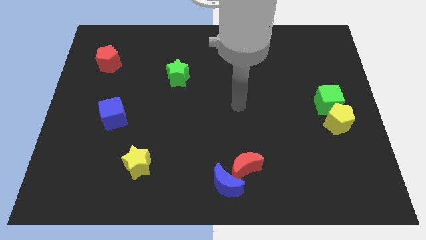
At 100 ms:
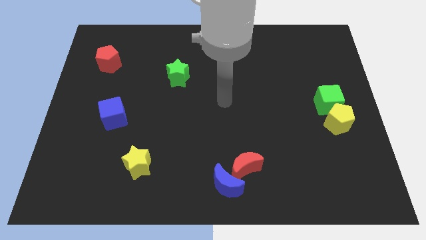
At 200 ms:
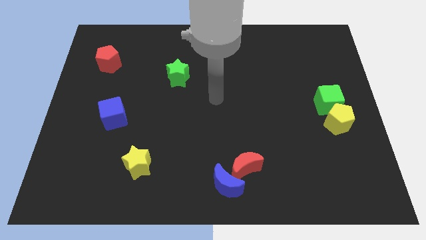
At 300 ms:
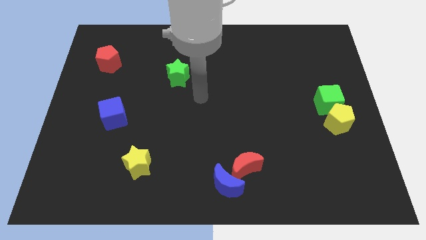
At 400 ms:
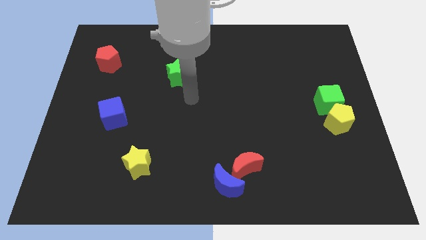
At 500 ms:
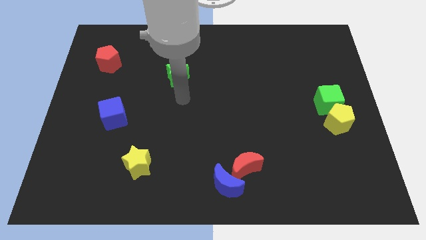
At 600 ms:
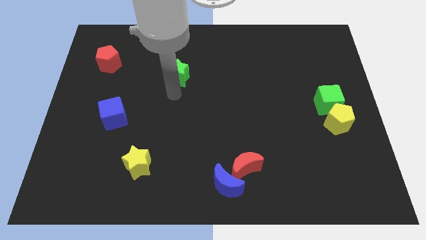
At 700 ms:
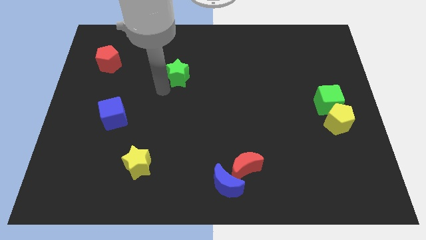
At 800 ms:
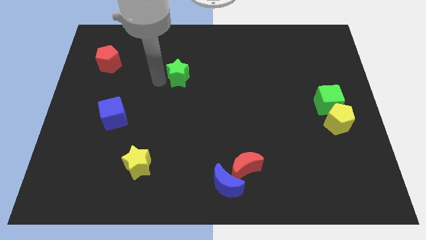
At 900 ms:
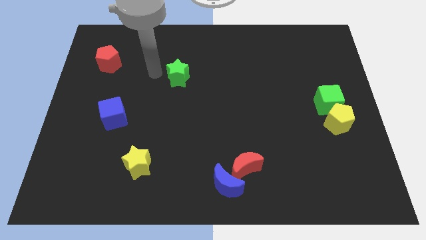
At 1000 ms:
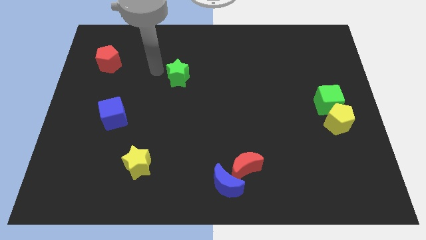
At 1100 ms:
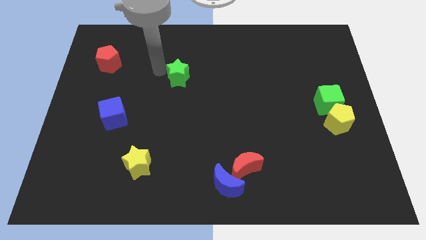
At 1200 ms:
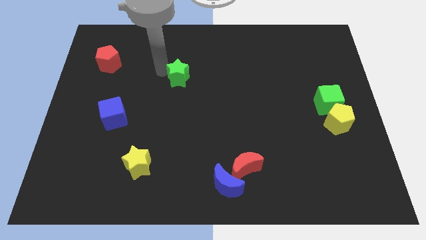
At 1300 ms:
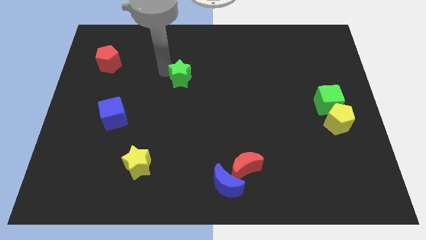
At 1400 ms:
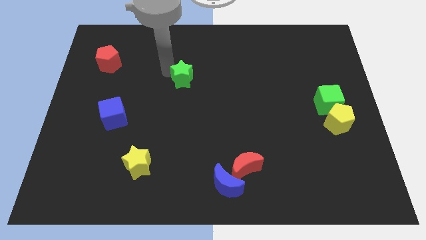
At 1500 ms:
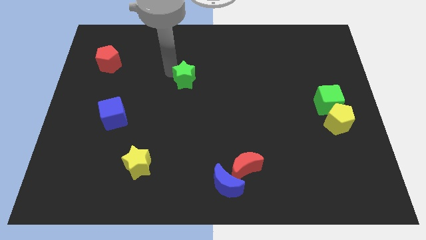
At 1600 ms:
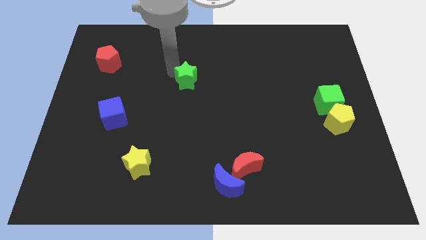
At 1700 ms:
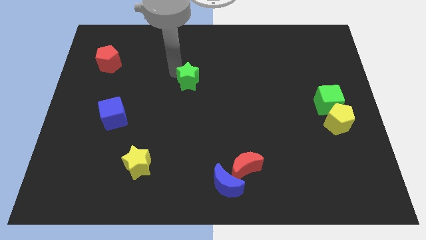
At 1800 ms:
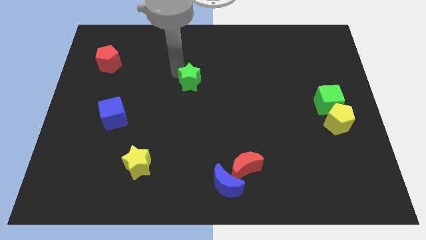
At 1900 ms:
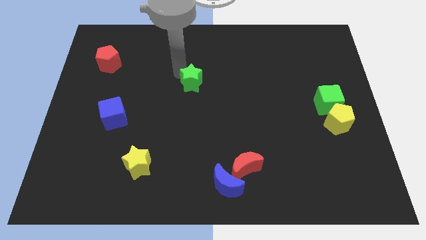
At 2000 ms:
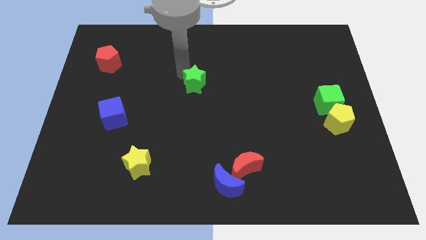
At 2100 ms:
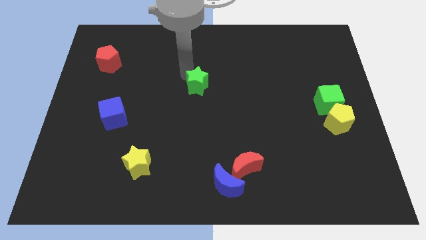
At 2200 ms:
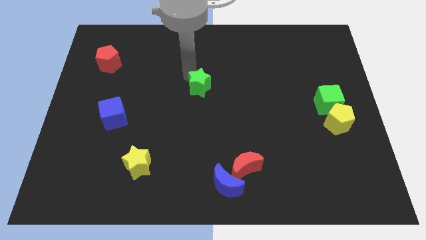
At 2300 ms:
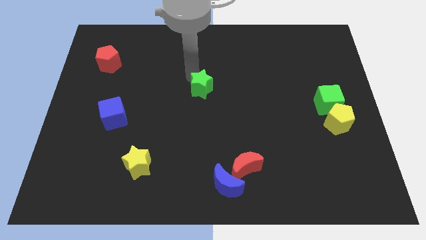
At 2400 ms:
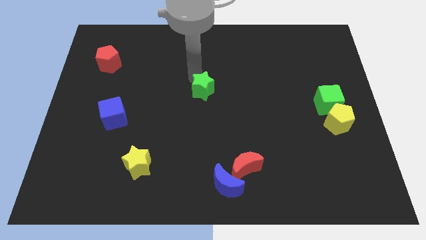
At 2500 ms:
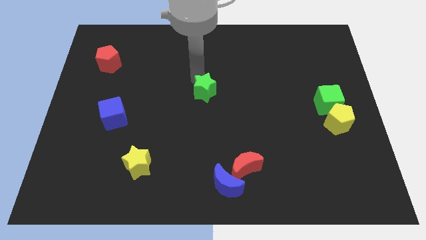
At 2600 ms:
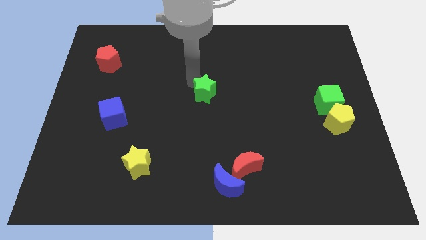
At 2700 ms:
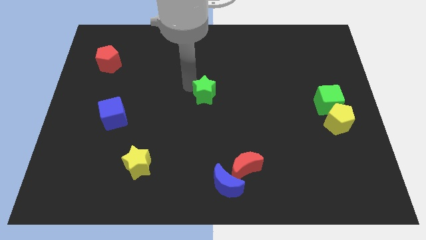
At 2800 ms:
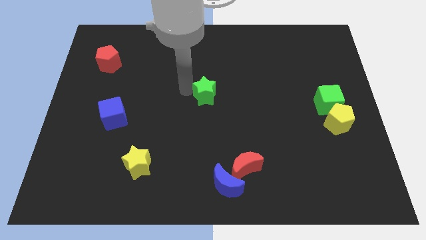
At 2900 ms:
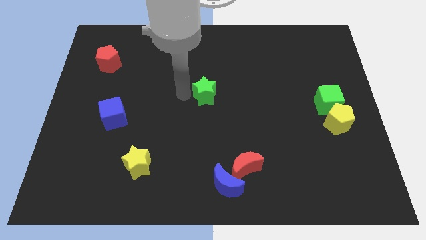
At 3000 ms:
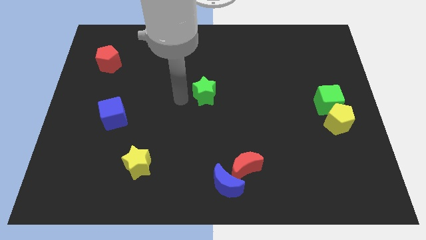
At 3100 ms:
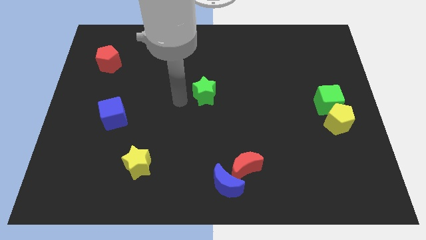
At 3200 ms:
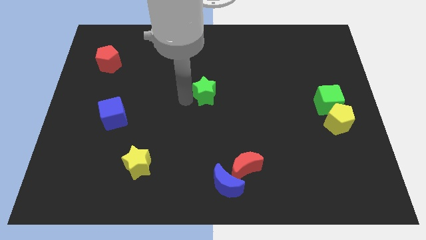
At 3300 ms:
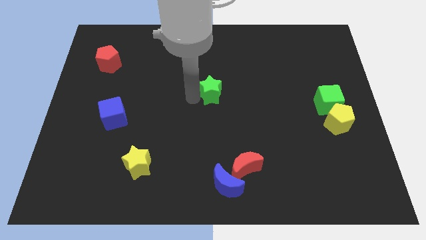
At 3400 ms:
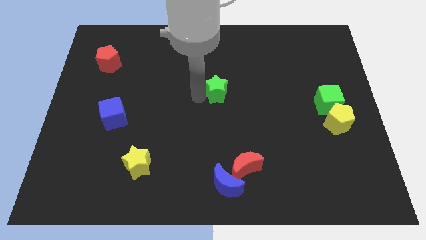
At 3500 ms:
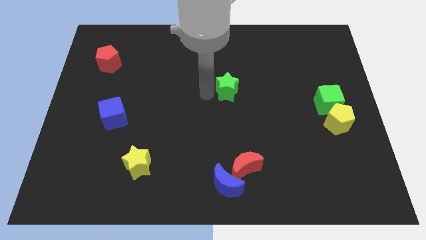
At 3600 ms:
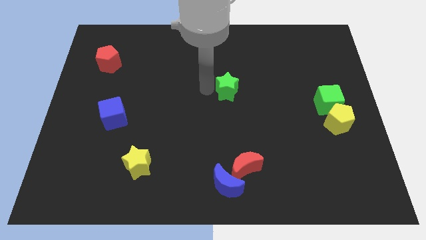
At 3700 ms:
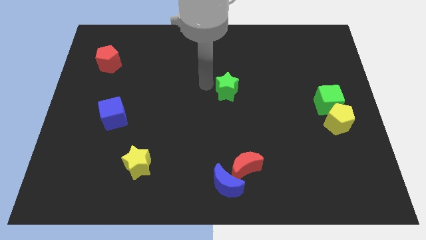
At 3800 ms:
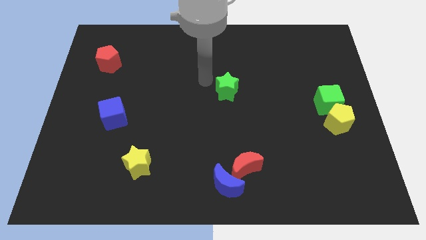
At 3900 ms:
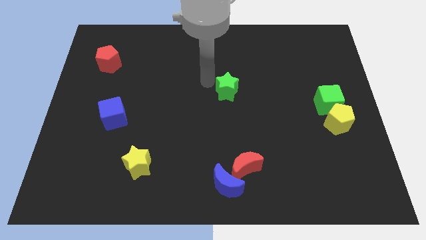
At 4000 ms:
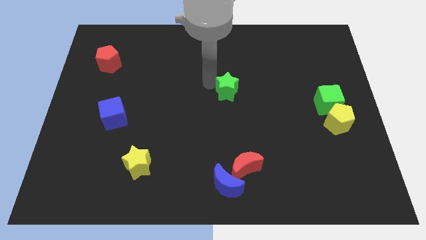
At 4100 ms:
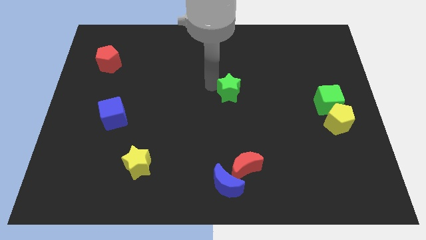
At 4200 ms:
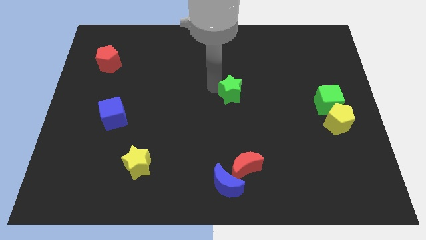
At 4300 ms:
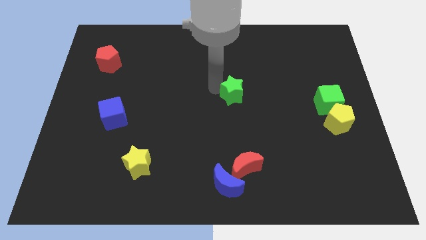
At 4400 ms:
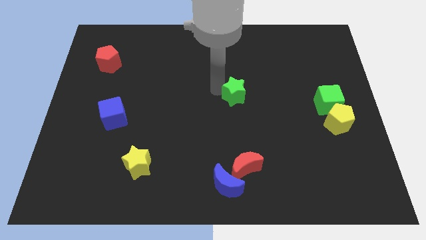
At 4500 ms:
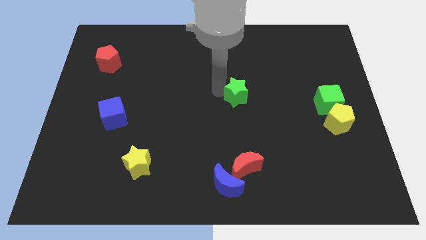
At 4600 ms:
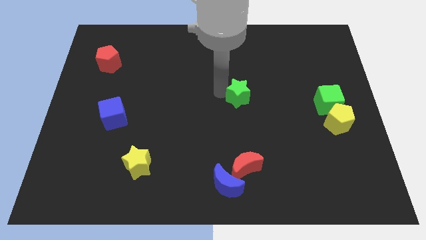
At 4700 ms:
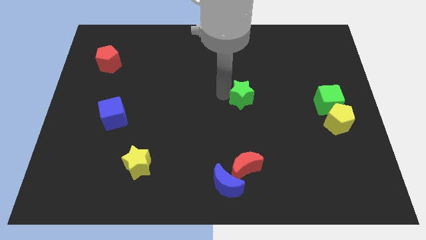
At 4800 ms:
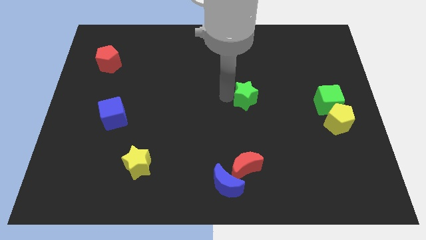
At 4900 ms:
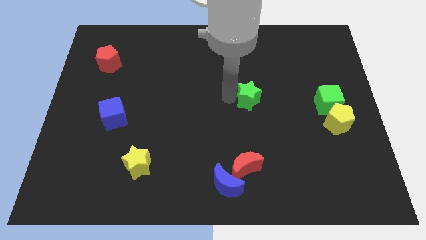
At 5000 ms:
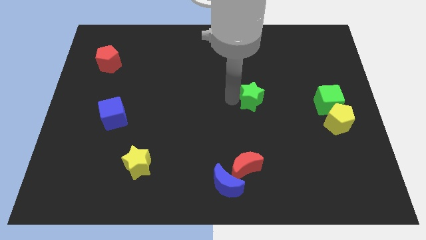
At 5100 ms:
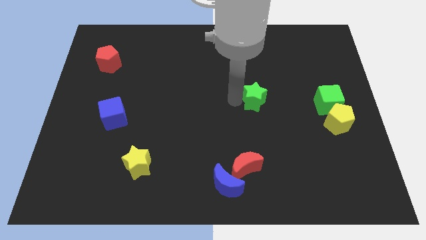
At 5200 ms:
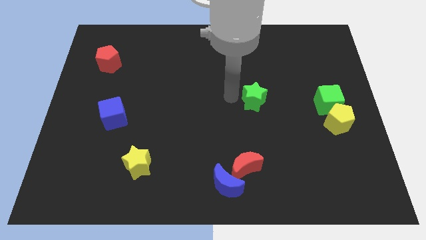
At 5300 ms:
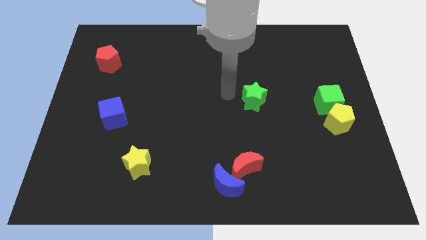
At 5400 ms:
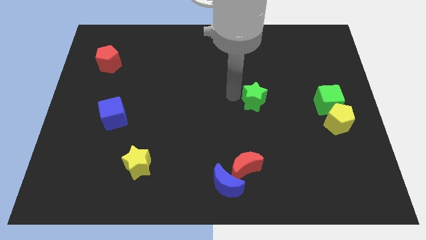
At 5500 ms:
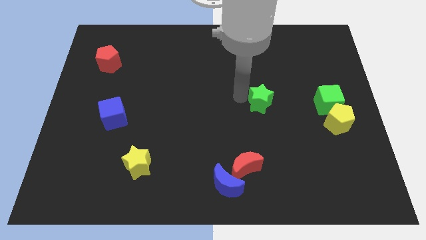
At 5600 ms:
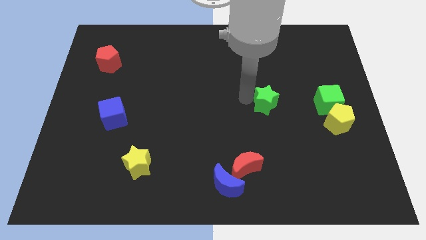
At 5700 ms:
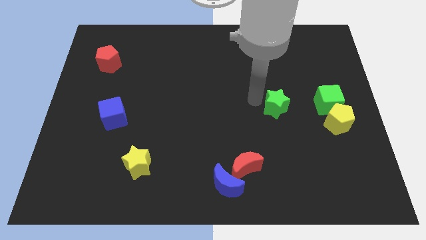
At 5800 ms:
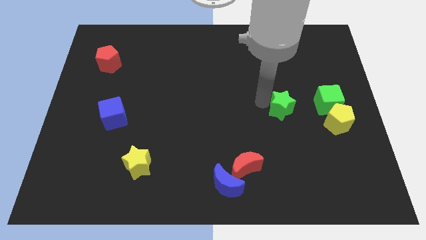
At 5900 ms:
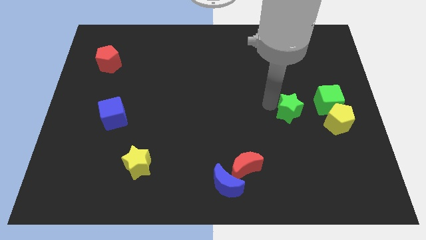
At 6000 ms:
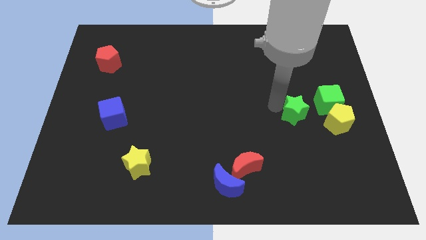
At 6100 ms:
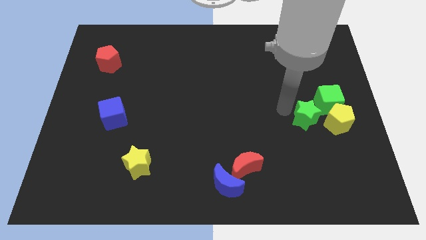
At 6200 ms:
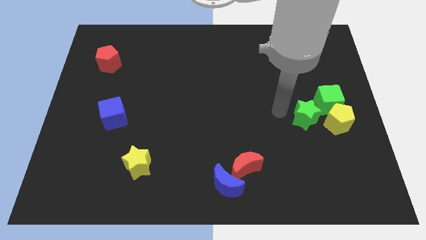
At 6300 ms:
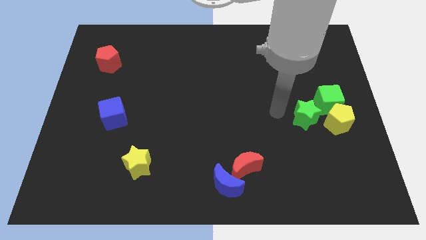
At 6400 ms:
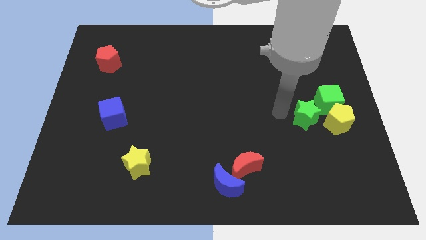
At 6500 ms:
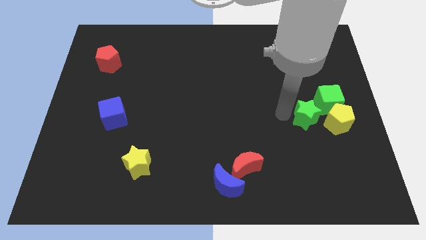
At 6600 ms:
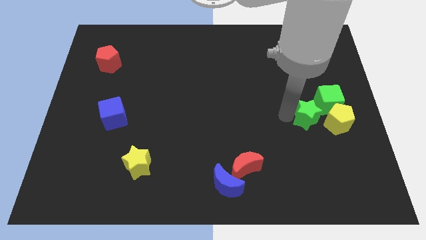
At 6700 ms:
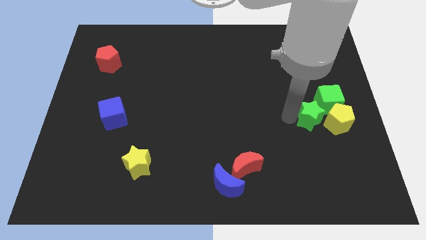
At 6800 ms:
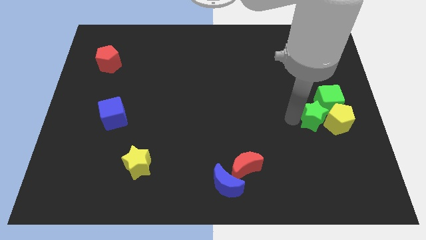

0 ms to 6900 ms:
put the green star close to the yellow pentagon
